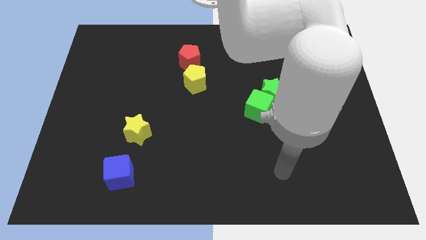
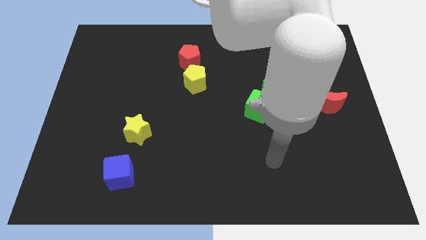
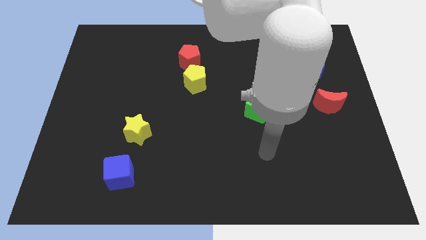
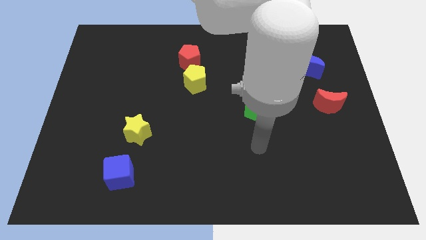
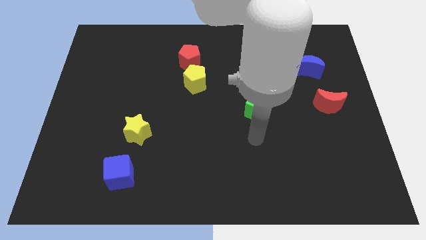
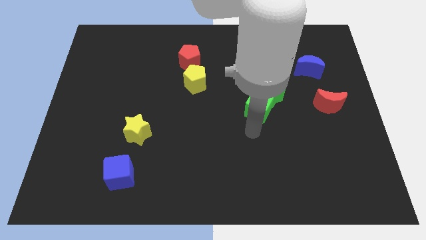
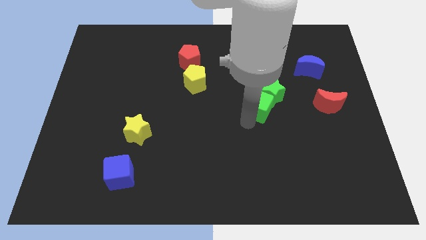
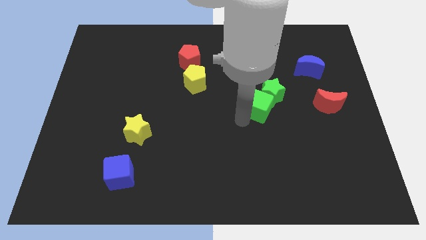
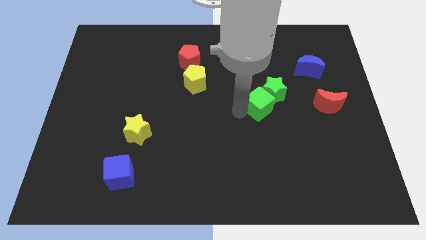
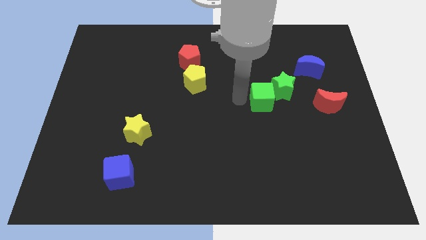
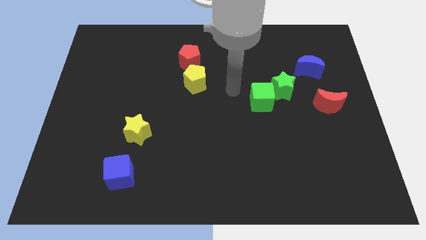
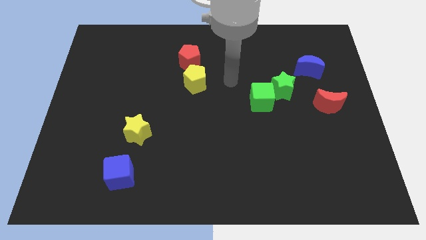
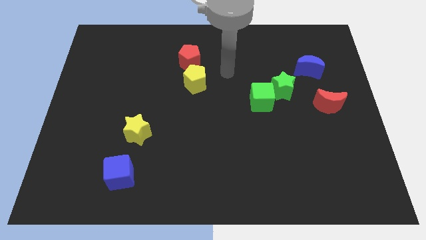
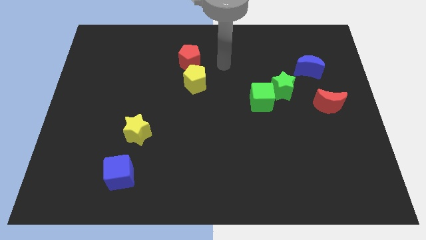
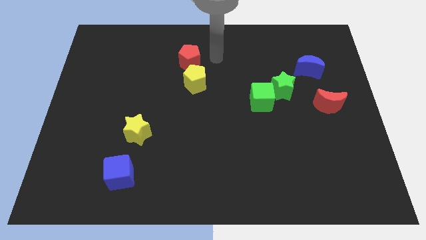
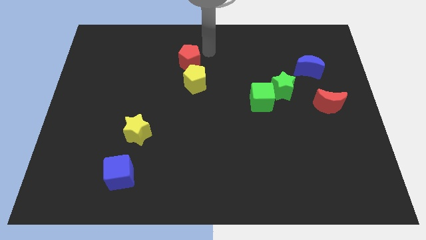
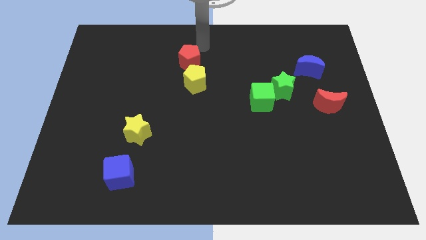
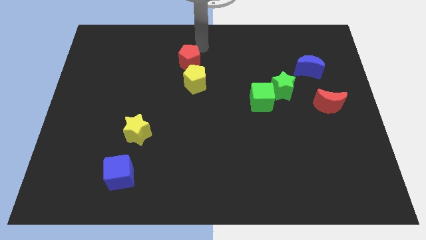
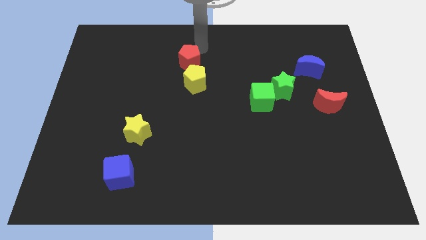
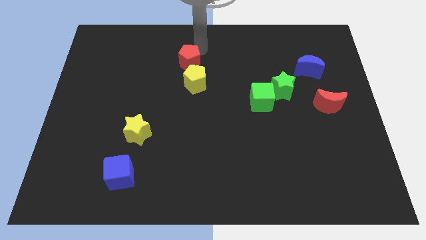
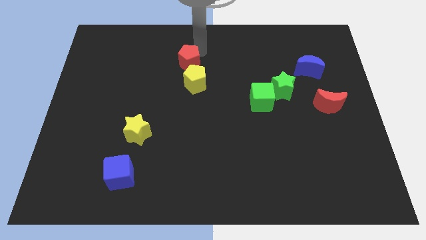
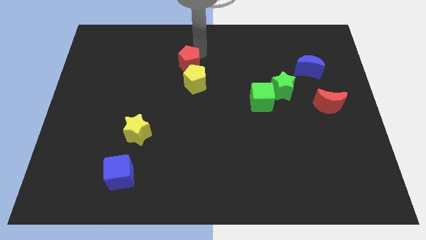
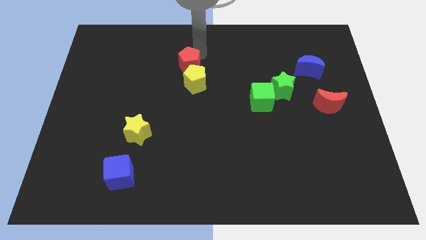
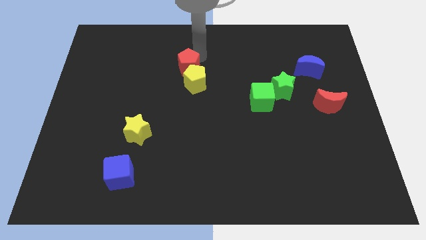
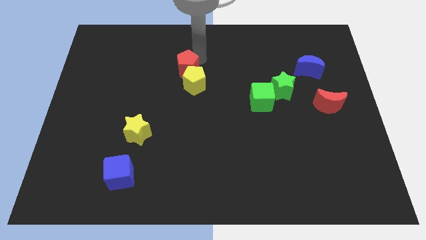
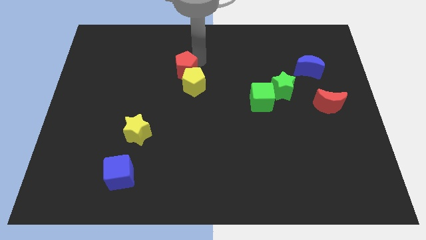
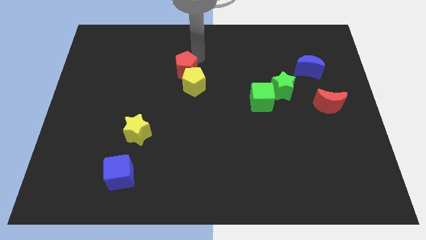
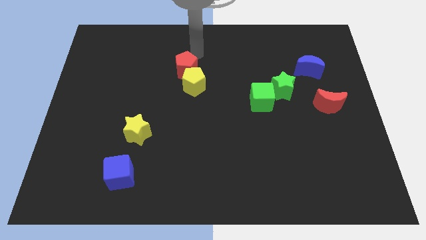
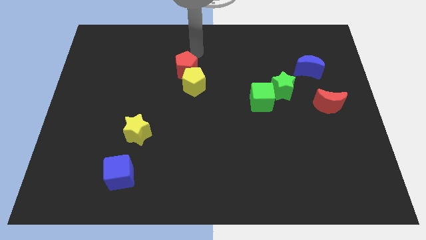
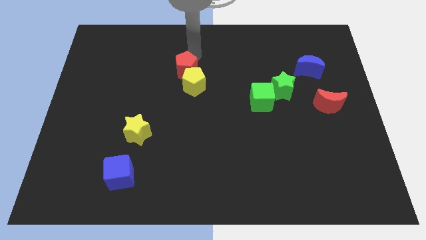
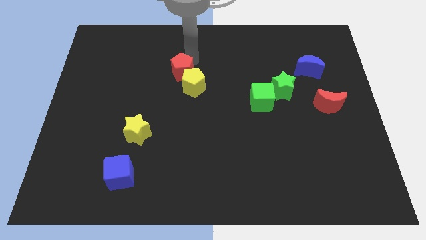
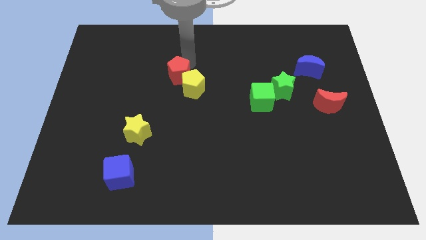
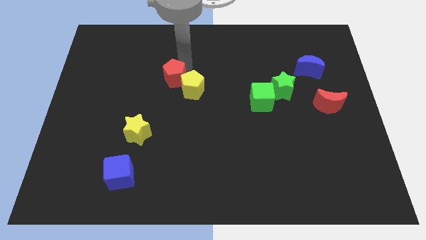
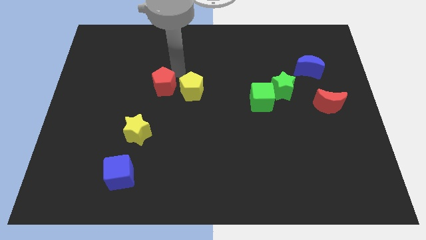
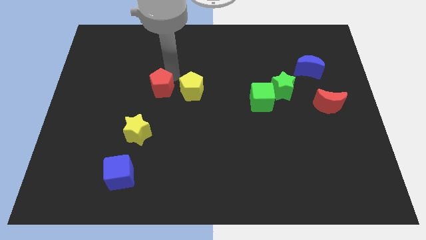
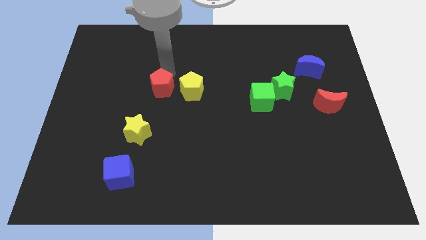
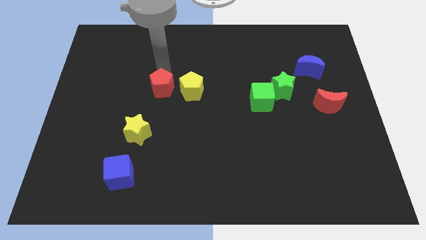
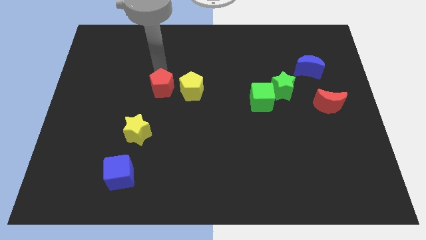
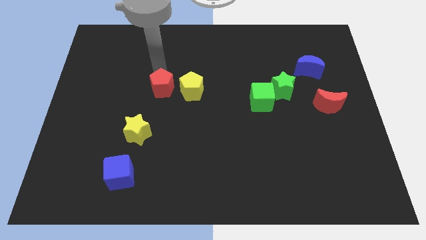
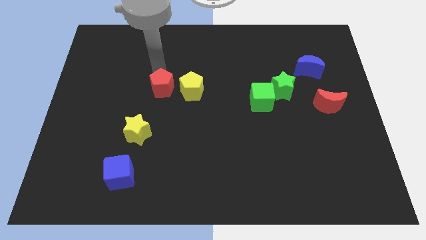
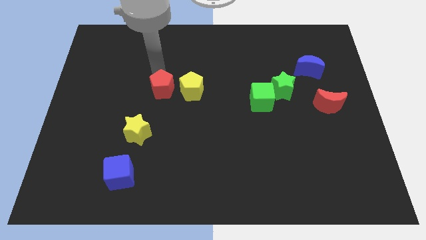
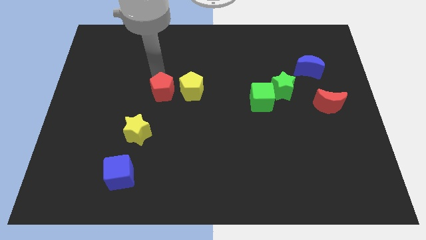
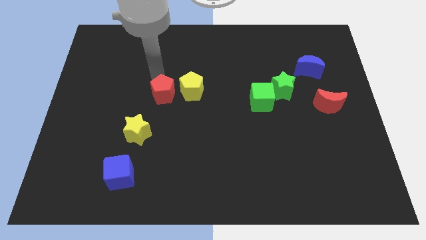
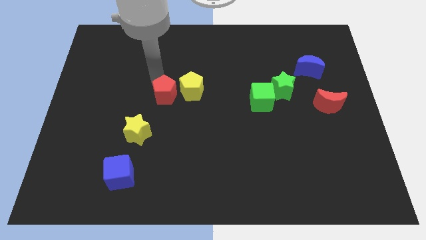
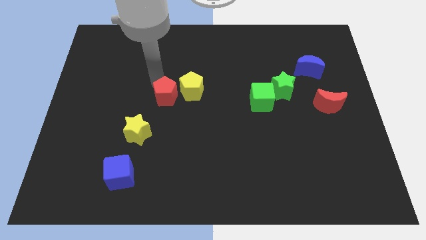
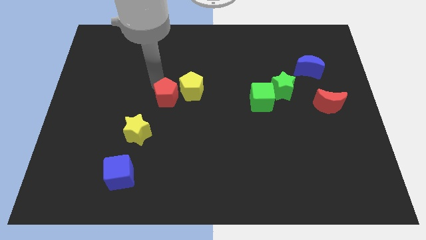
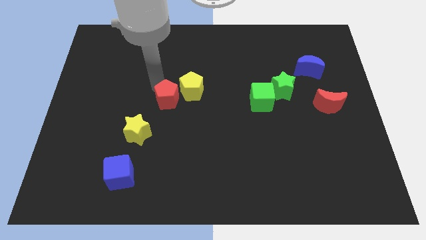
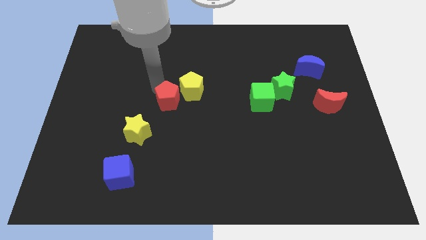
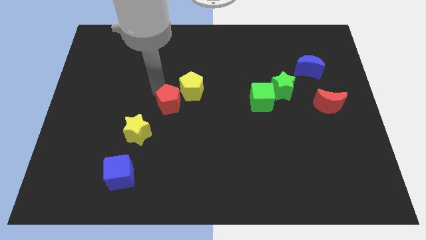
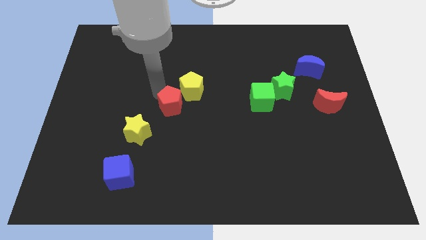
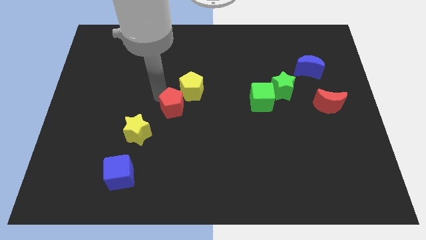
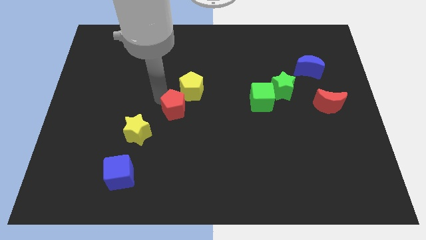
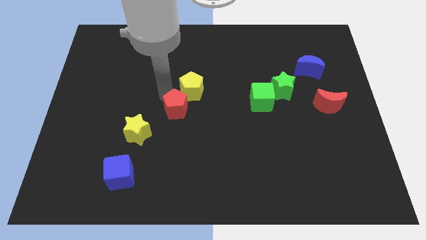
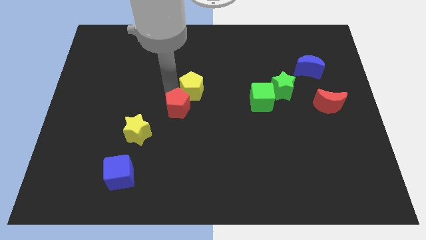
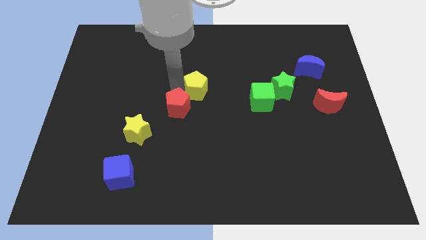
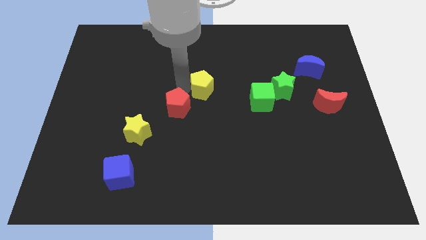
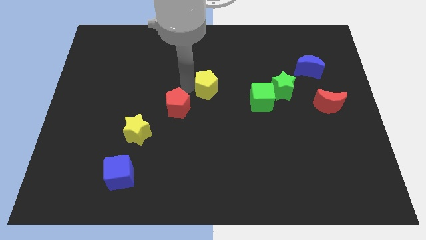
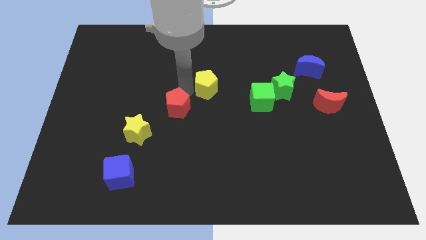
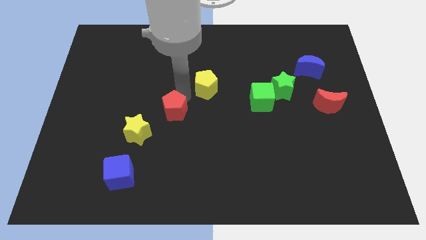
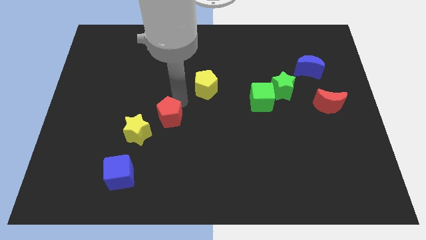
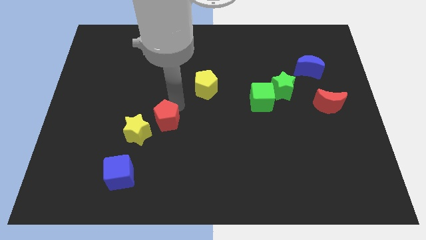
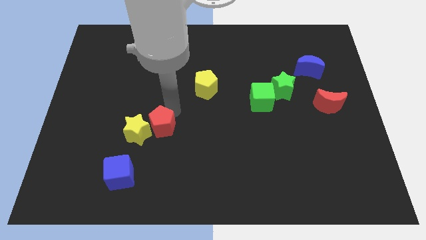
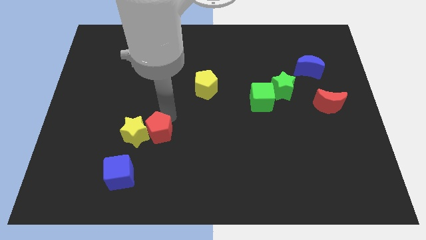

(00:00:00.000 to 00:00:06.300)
move the red pentagon down

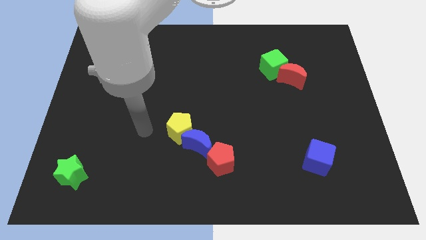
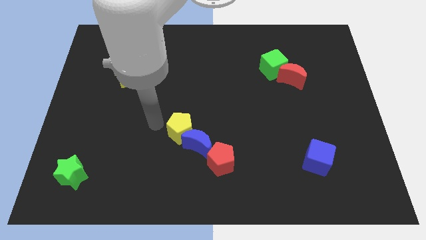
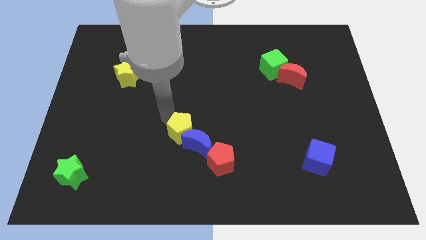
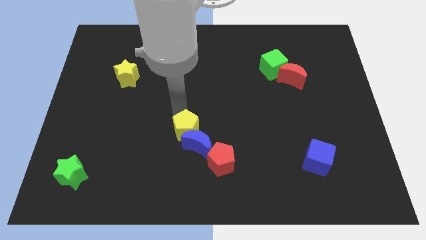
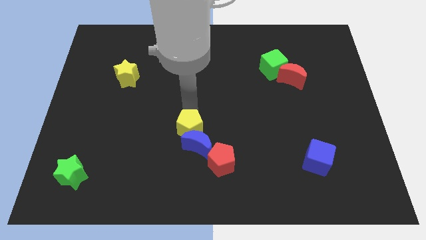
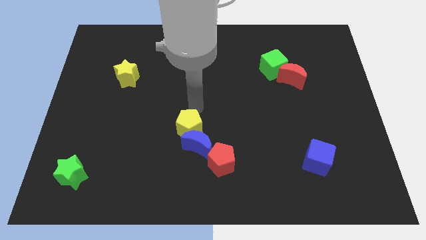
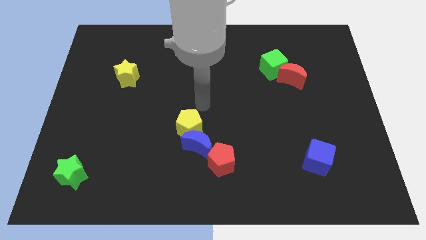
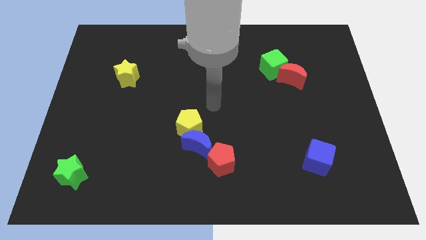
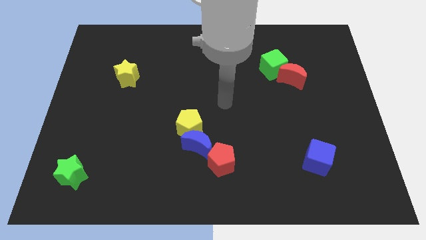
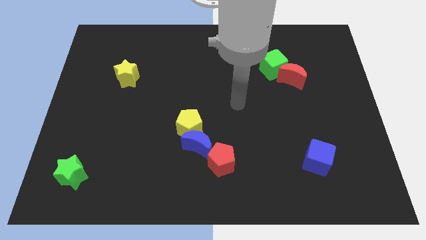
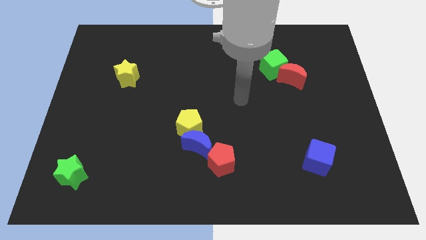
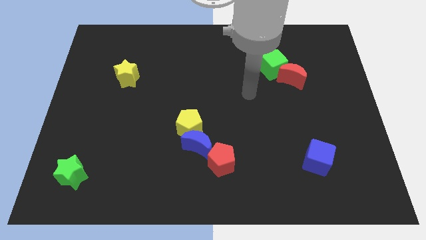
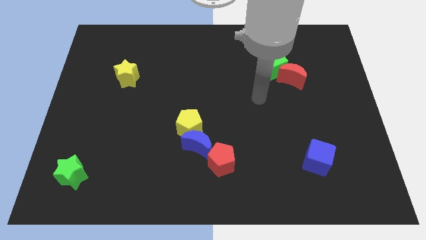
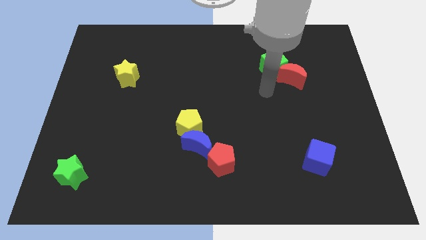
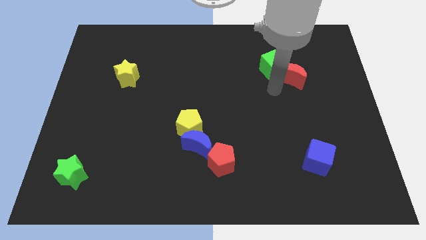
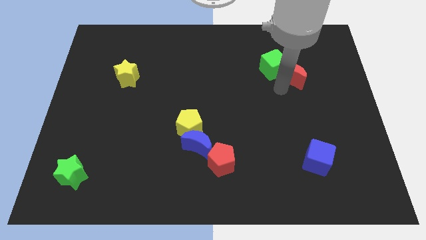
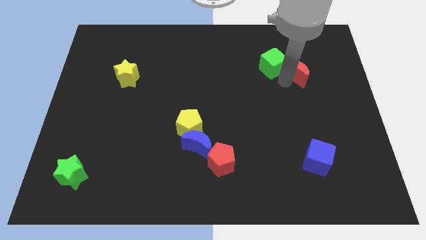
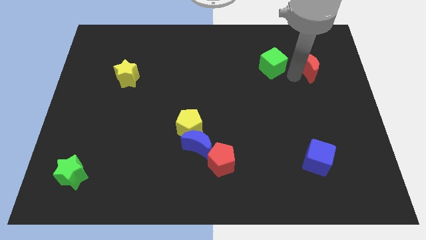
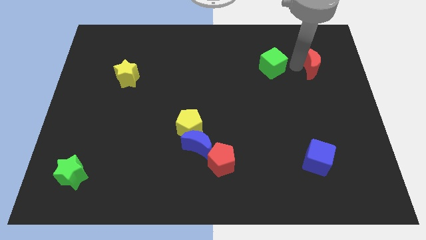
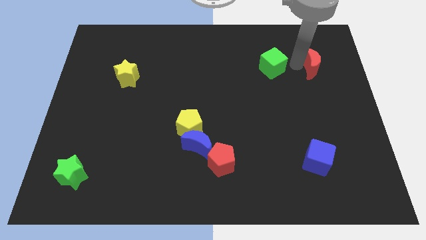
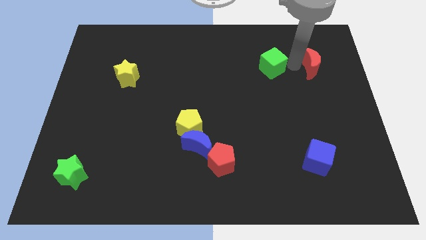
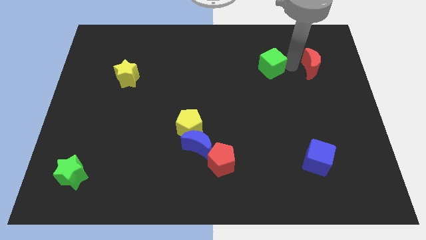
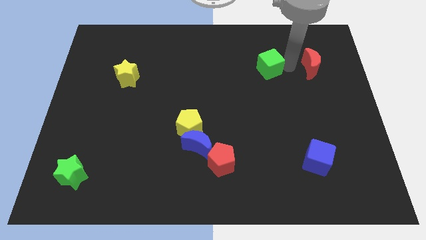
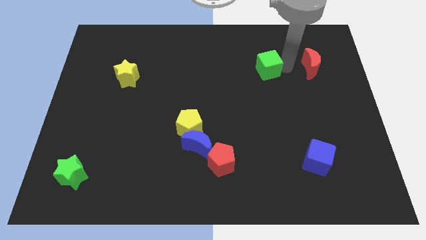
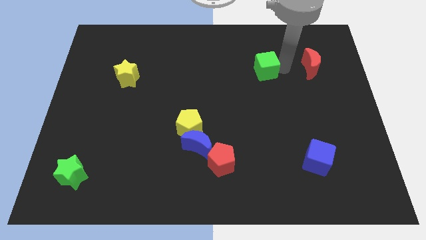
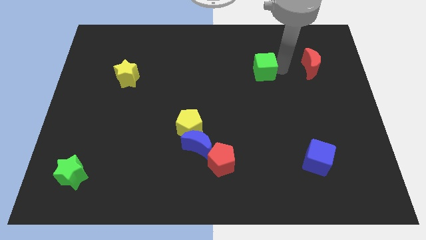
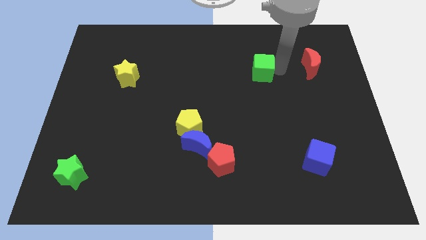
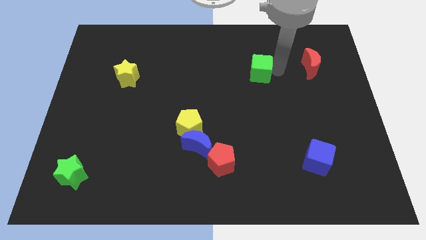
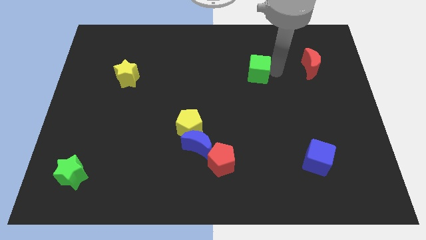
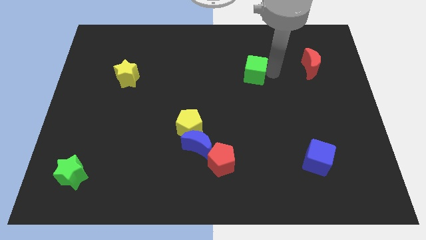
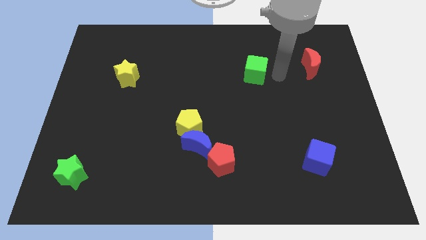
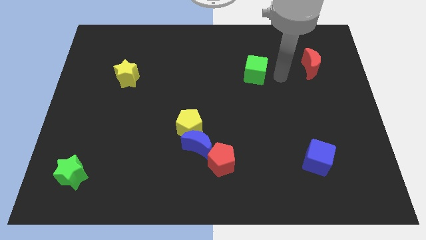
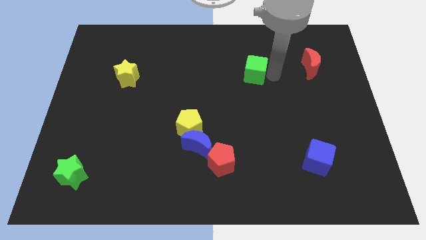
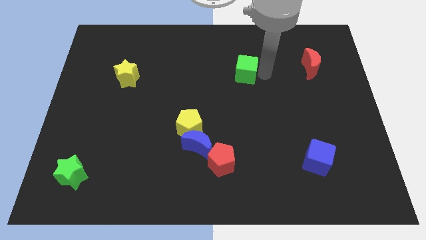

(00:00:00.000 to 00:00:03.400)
slightly move the green cube left
